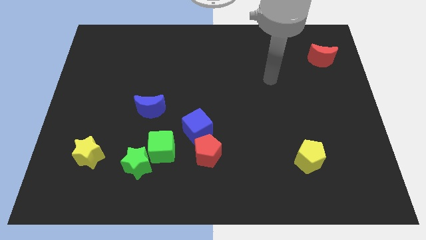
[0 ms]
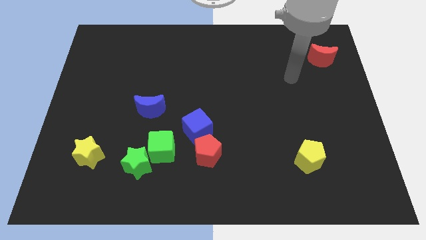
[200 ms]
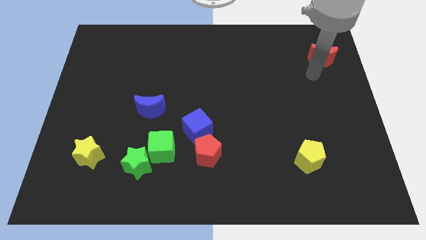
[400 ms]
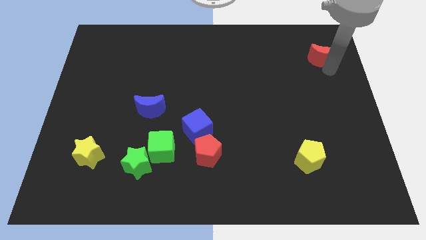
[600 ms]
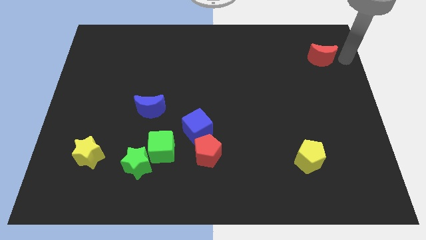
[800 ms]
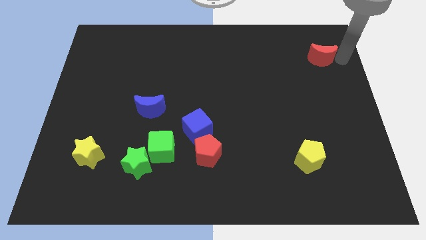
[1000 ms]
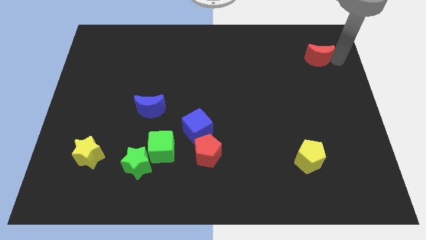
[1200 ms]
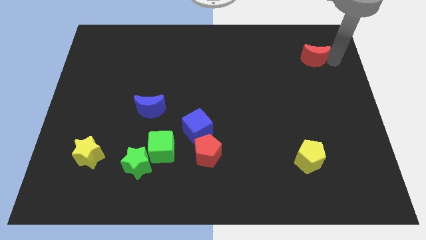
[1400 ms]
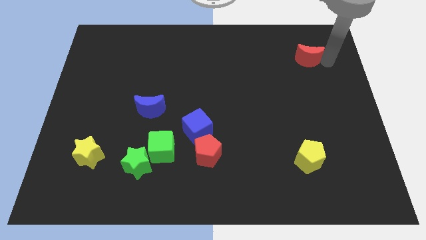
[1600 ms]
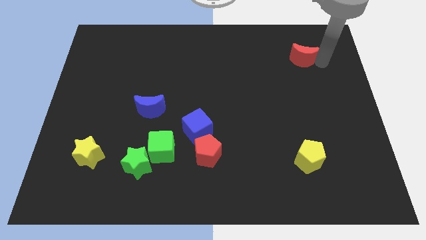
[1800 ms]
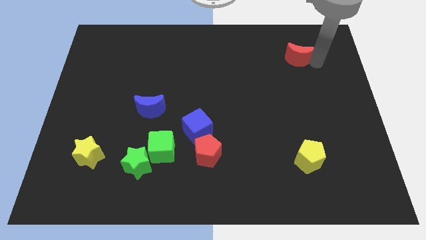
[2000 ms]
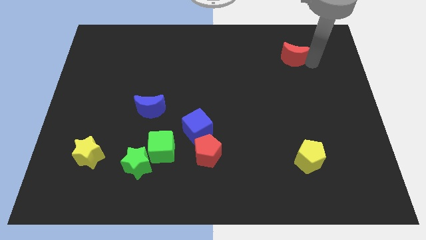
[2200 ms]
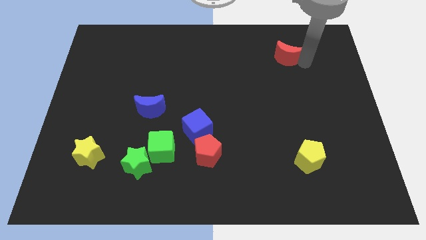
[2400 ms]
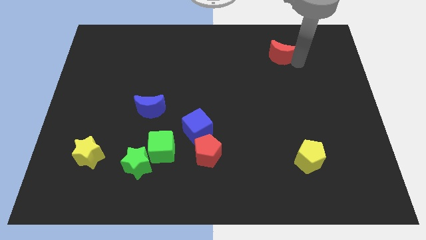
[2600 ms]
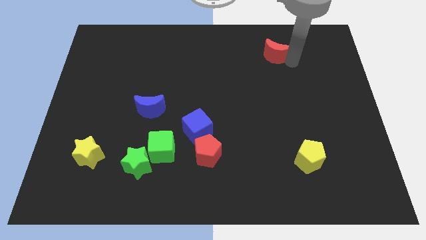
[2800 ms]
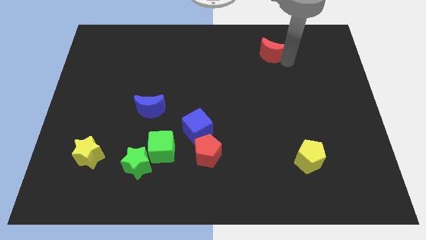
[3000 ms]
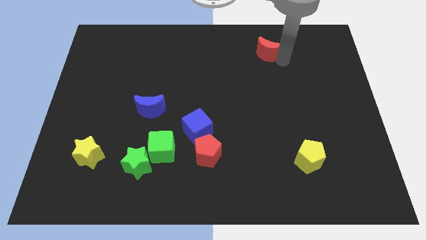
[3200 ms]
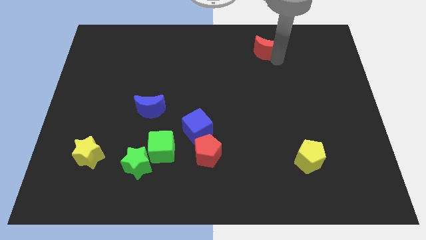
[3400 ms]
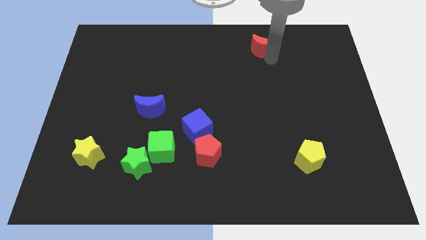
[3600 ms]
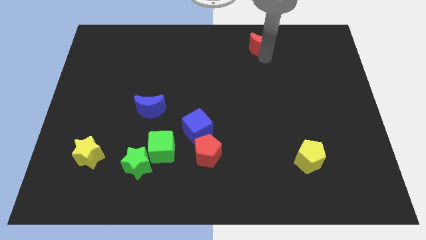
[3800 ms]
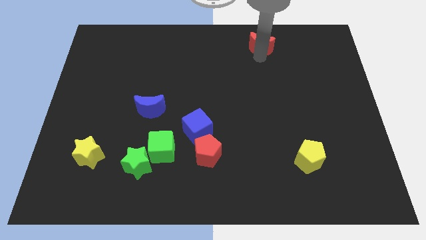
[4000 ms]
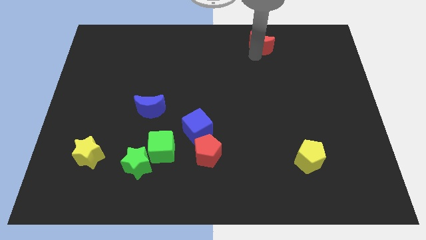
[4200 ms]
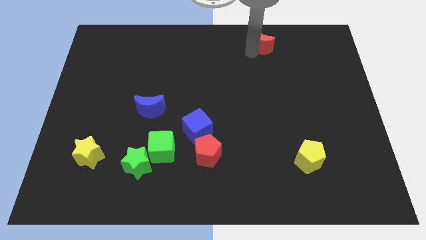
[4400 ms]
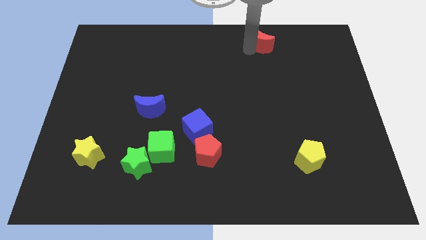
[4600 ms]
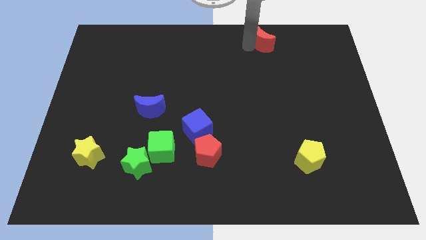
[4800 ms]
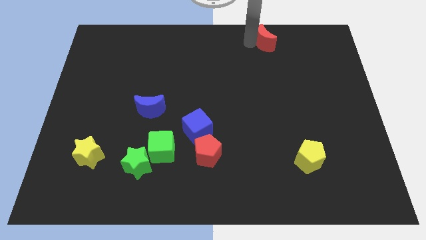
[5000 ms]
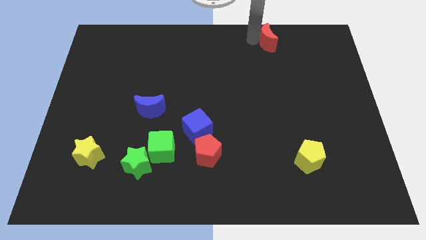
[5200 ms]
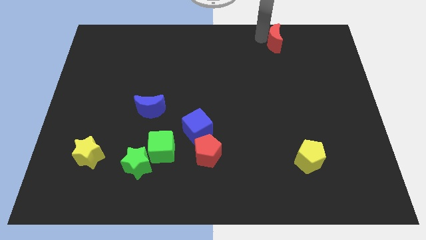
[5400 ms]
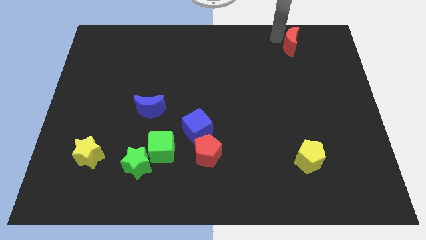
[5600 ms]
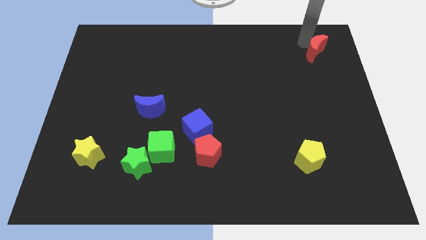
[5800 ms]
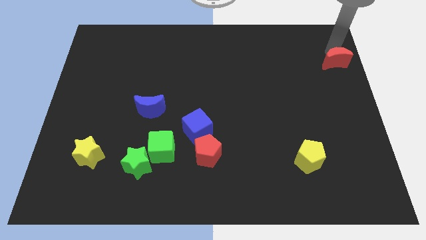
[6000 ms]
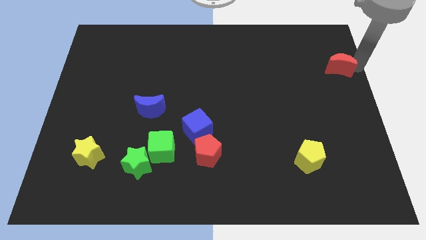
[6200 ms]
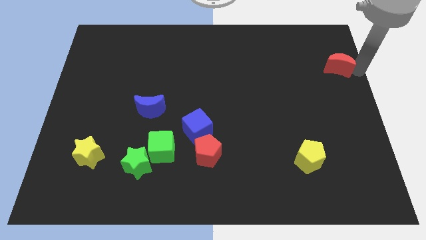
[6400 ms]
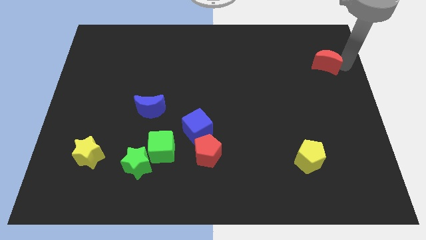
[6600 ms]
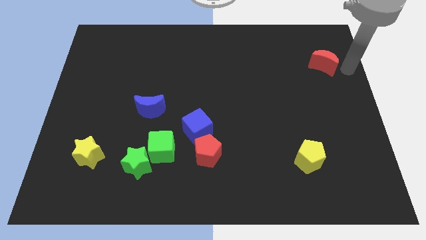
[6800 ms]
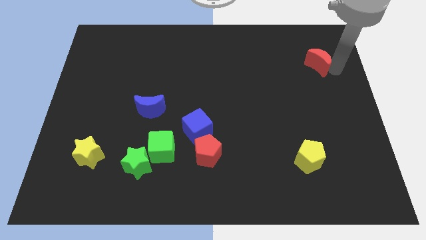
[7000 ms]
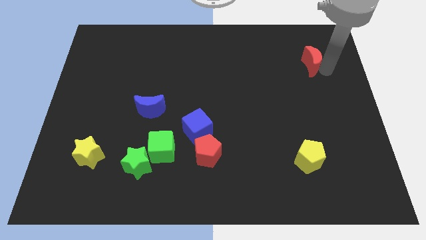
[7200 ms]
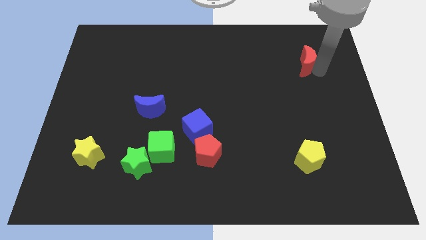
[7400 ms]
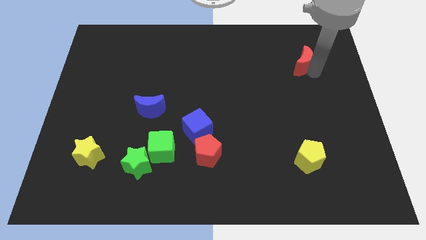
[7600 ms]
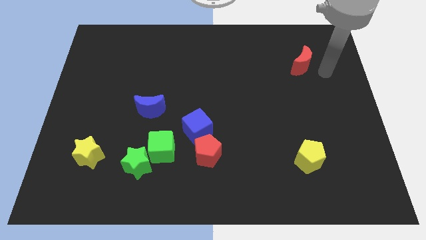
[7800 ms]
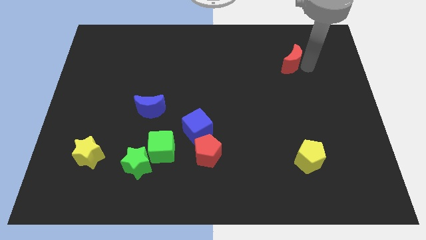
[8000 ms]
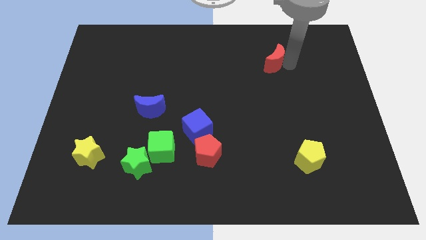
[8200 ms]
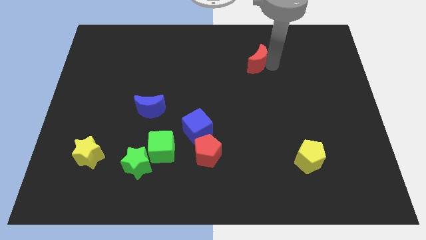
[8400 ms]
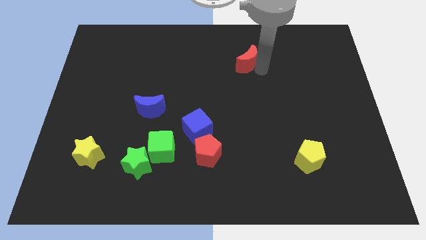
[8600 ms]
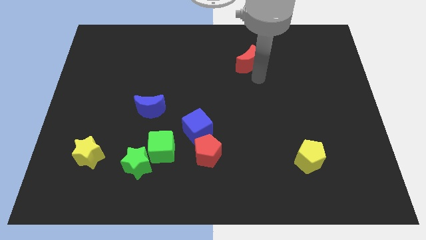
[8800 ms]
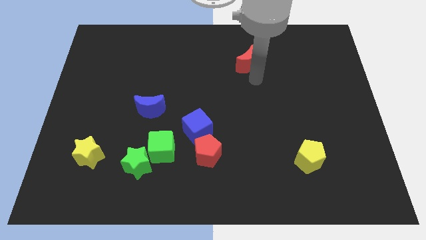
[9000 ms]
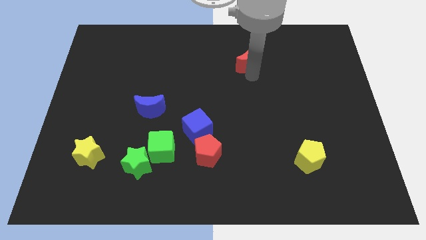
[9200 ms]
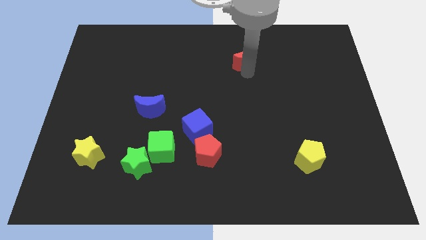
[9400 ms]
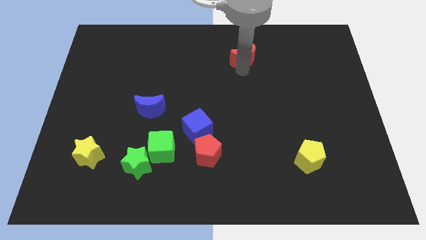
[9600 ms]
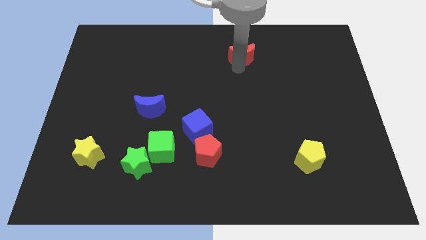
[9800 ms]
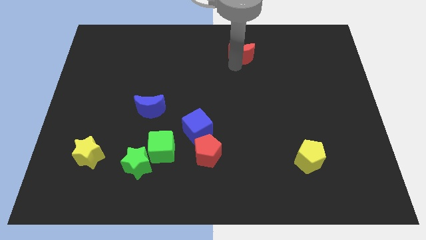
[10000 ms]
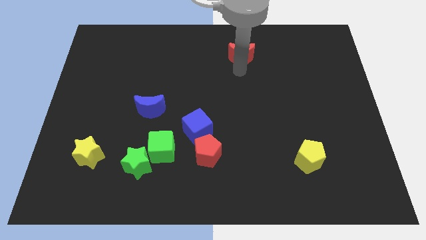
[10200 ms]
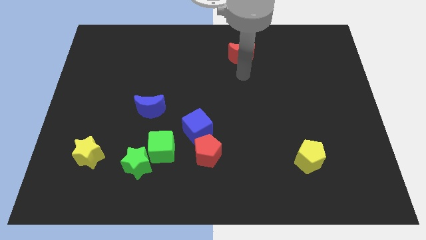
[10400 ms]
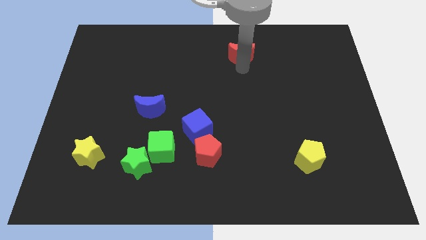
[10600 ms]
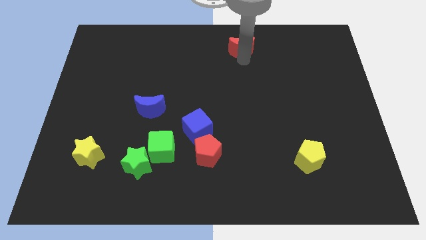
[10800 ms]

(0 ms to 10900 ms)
put the red moon to the top side
